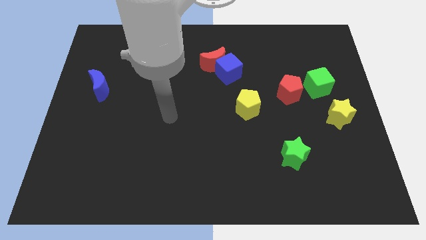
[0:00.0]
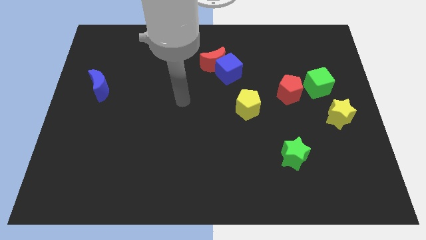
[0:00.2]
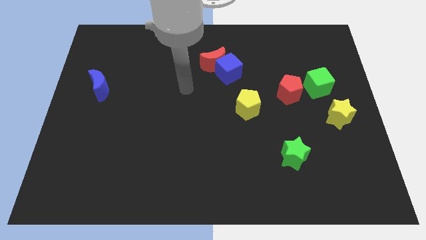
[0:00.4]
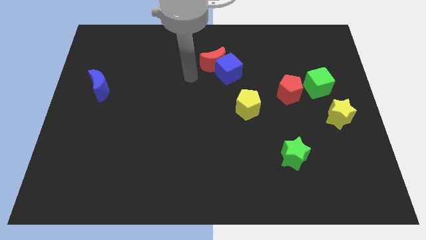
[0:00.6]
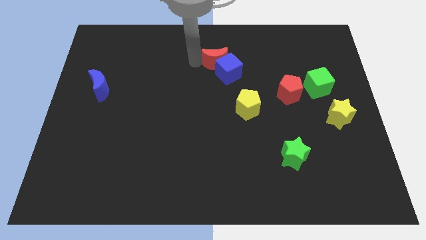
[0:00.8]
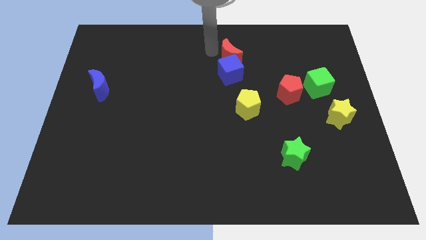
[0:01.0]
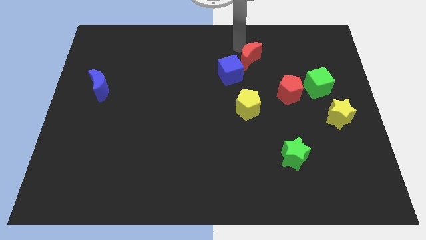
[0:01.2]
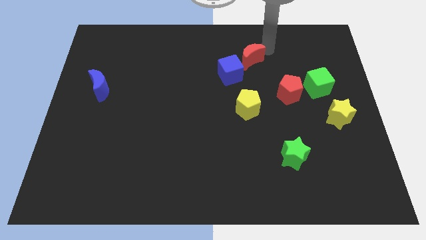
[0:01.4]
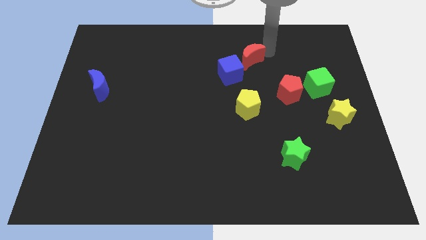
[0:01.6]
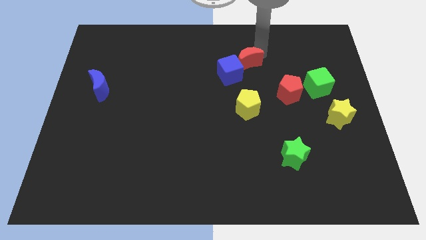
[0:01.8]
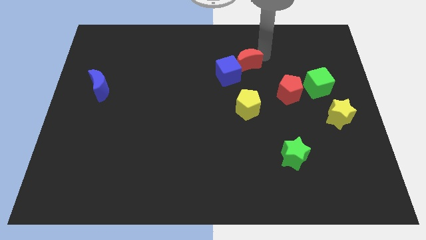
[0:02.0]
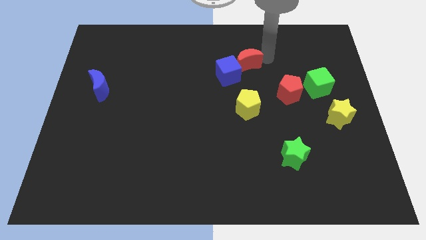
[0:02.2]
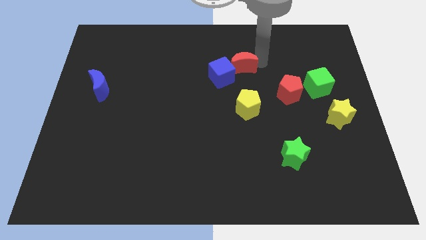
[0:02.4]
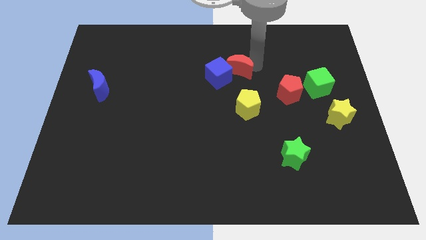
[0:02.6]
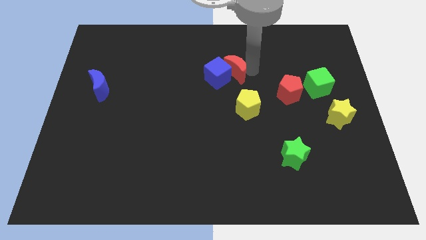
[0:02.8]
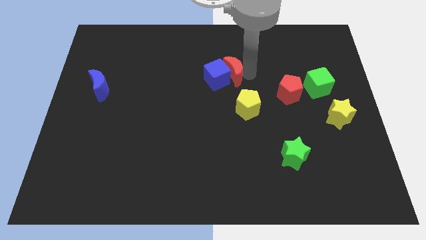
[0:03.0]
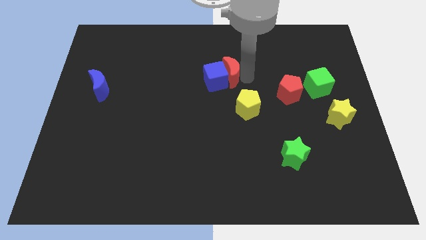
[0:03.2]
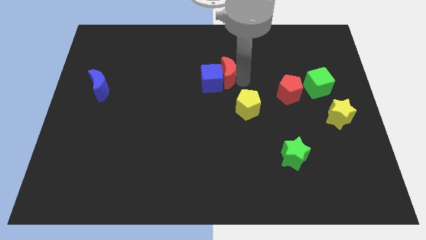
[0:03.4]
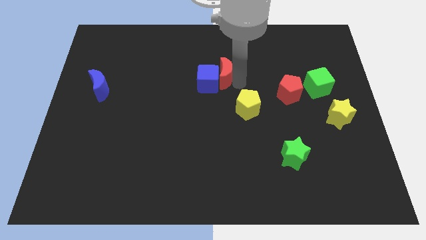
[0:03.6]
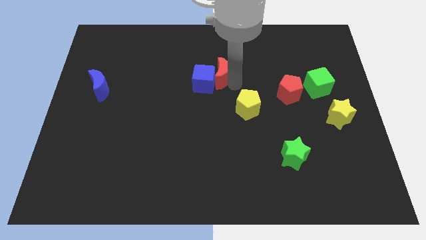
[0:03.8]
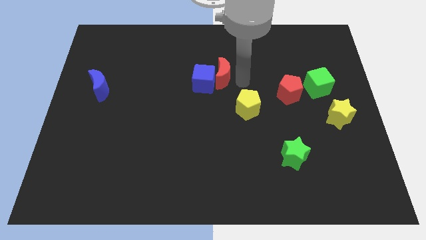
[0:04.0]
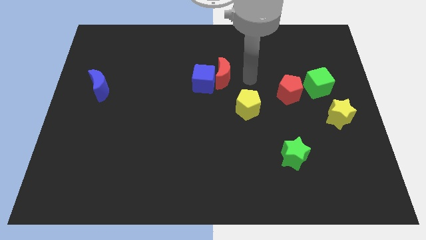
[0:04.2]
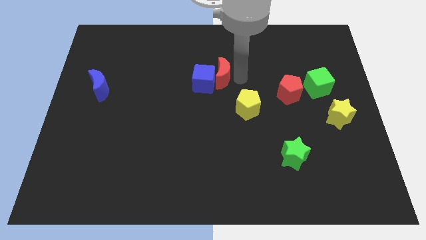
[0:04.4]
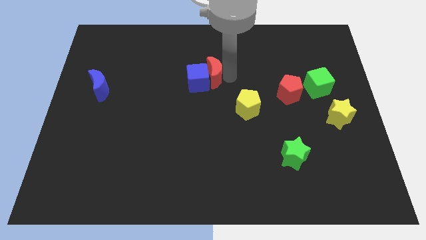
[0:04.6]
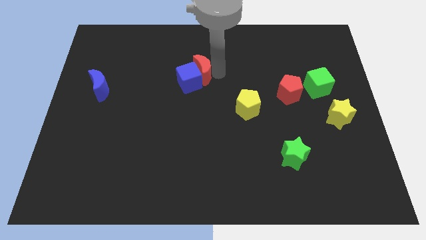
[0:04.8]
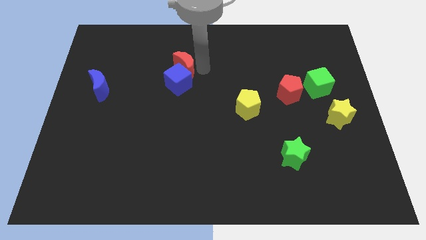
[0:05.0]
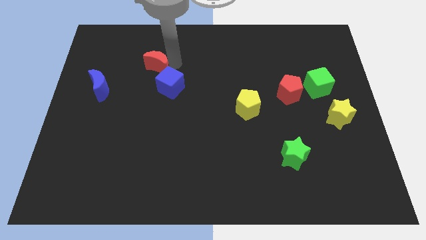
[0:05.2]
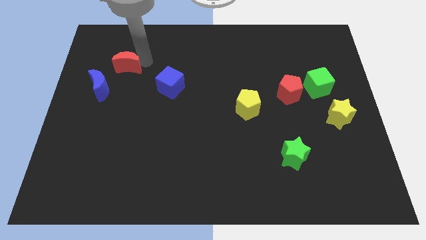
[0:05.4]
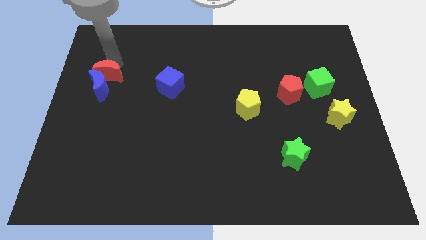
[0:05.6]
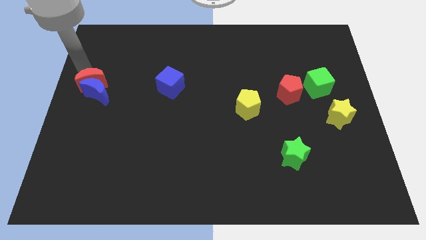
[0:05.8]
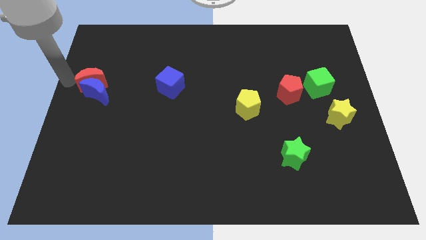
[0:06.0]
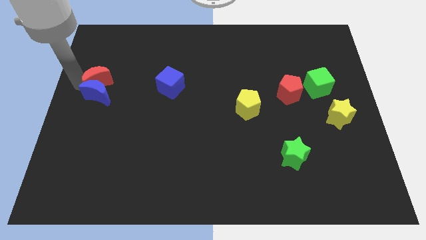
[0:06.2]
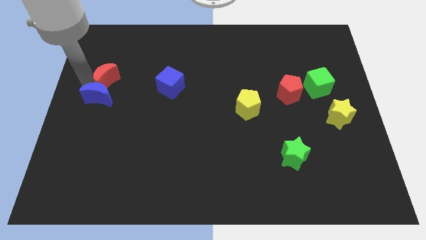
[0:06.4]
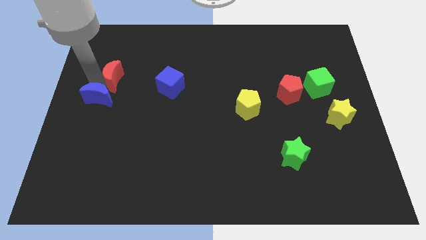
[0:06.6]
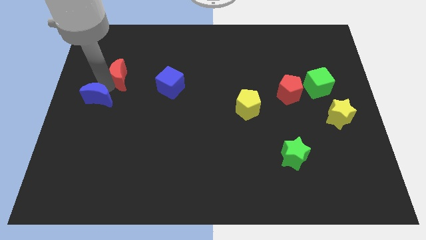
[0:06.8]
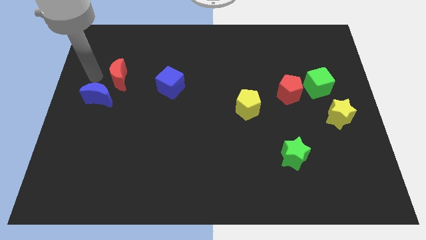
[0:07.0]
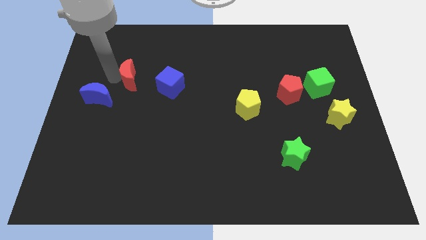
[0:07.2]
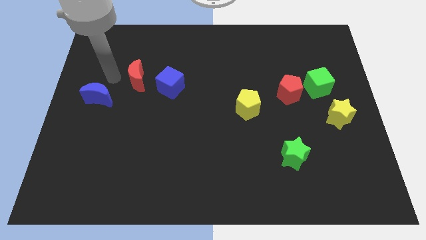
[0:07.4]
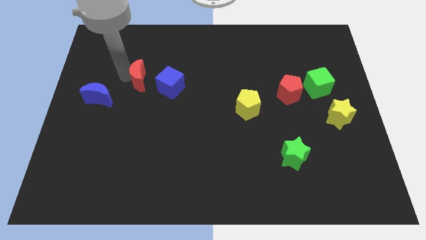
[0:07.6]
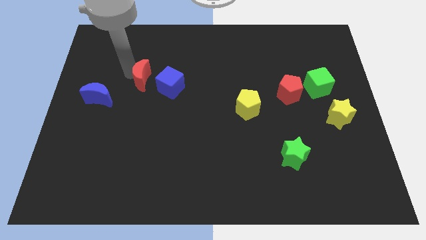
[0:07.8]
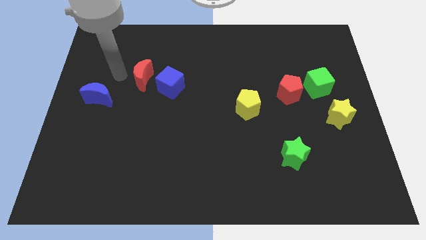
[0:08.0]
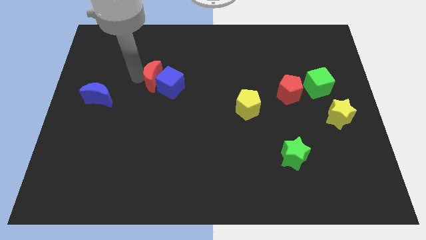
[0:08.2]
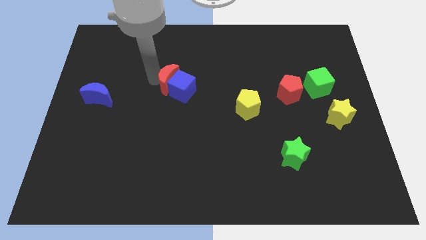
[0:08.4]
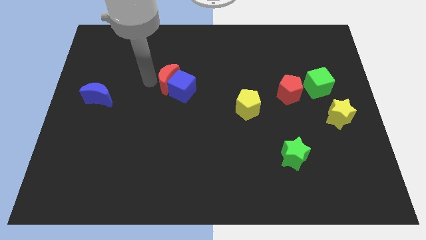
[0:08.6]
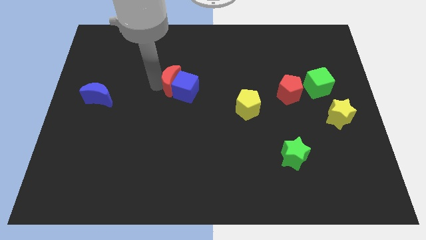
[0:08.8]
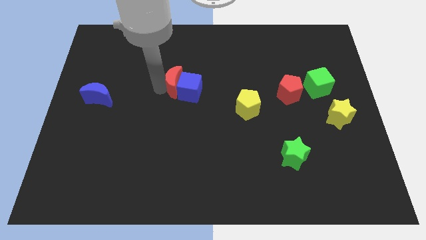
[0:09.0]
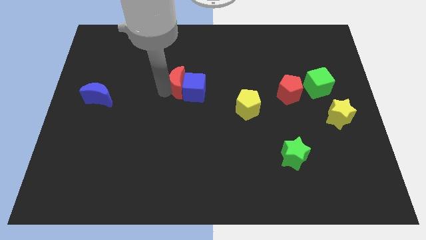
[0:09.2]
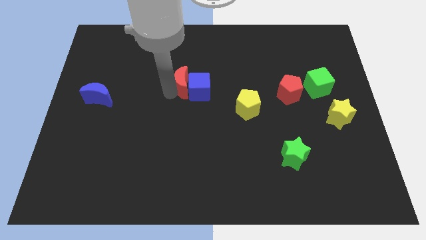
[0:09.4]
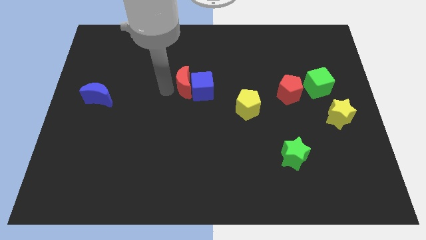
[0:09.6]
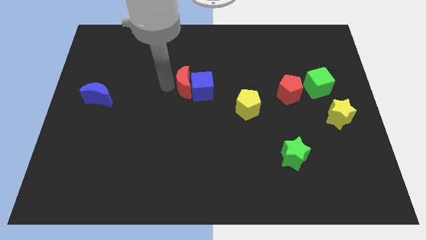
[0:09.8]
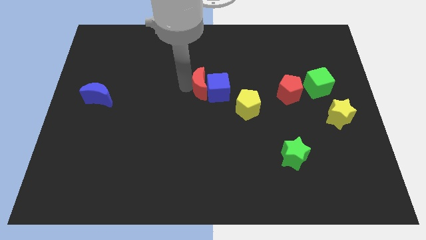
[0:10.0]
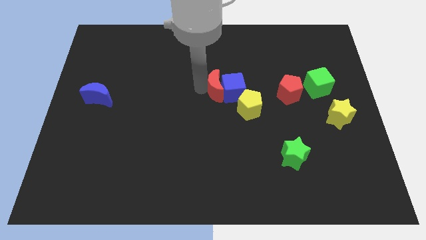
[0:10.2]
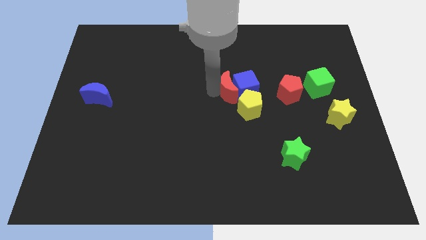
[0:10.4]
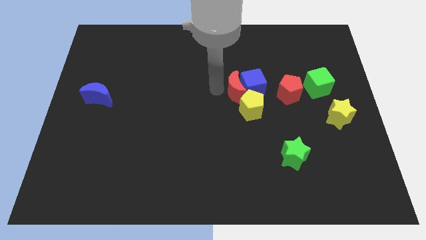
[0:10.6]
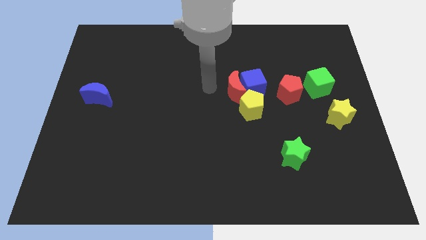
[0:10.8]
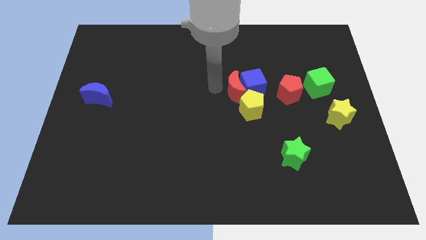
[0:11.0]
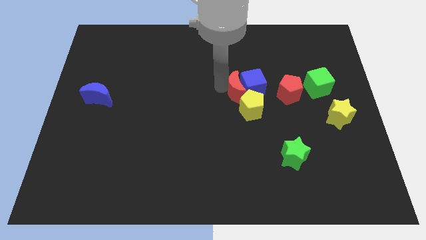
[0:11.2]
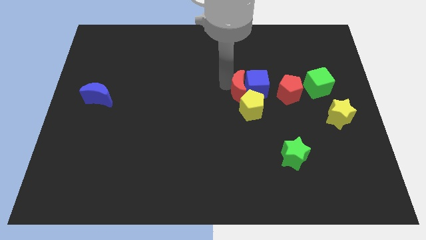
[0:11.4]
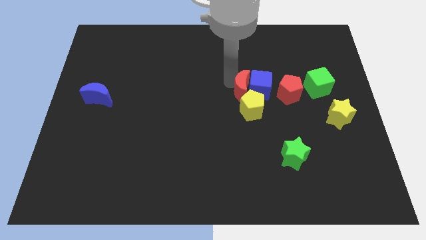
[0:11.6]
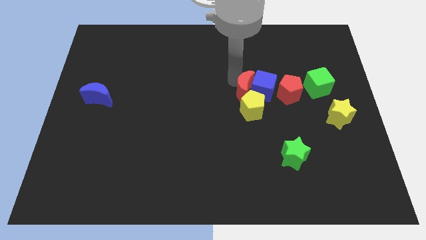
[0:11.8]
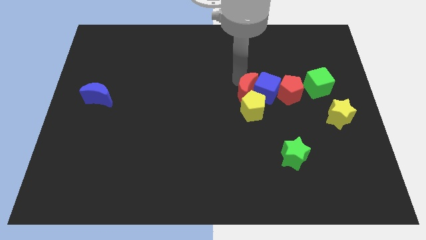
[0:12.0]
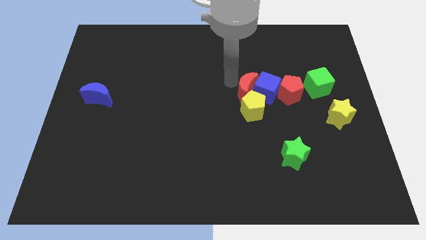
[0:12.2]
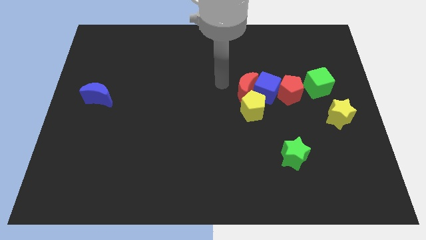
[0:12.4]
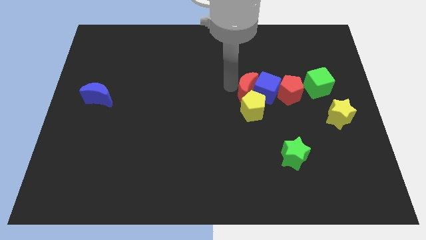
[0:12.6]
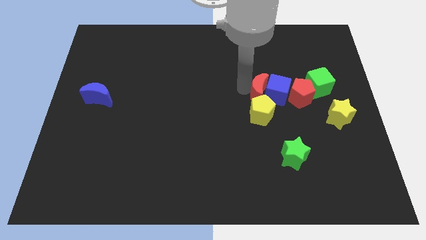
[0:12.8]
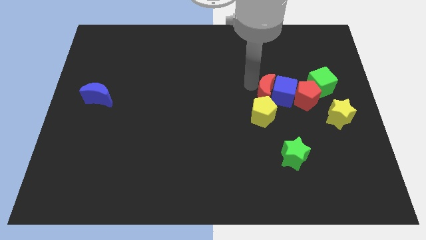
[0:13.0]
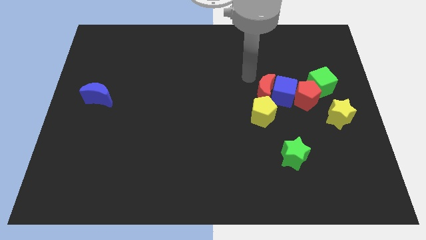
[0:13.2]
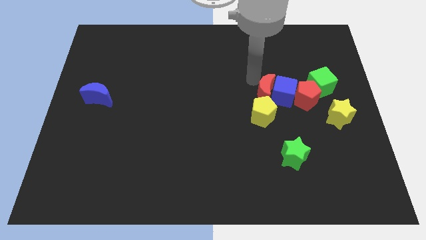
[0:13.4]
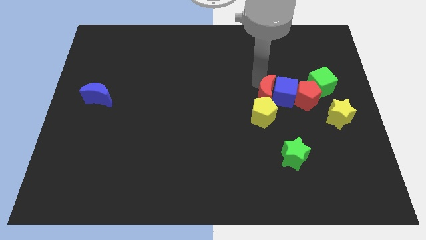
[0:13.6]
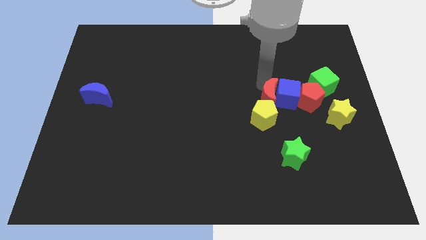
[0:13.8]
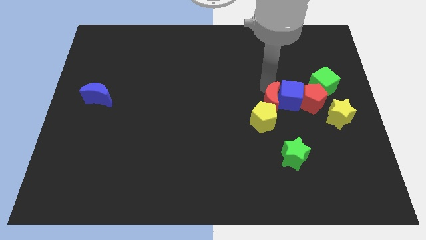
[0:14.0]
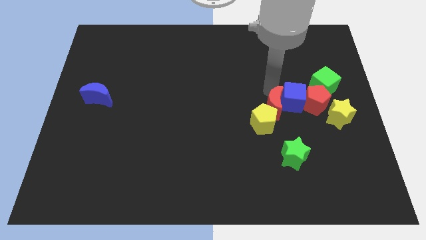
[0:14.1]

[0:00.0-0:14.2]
move the red moon diagonally downwards and to the right

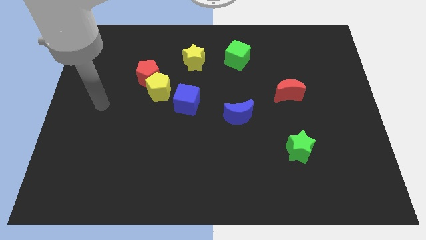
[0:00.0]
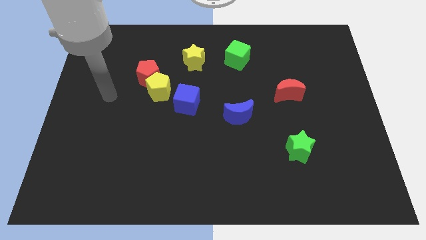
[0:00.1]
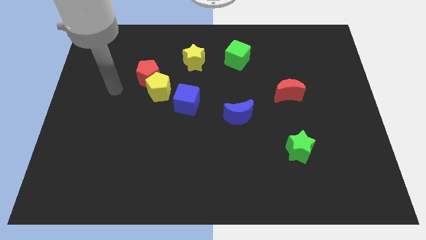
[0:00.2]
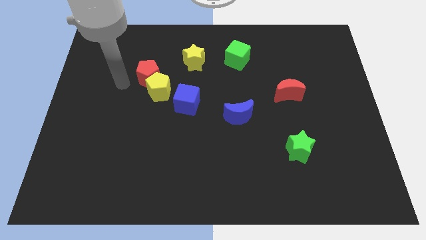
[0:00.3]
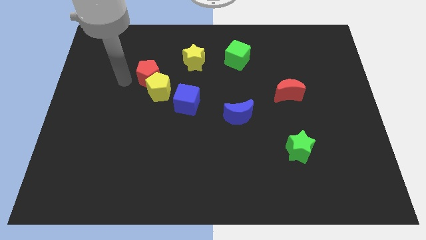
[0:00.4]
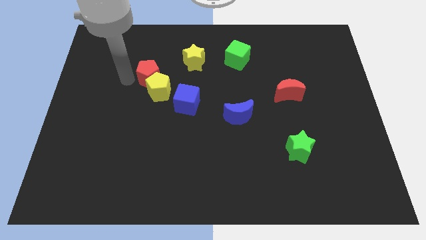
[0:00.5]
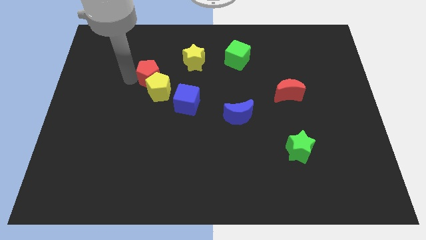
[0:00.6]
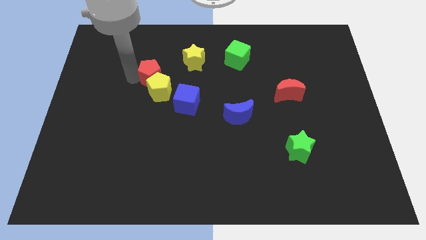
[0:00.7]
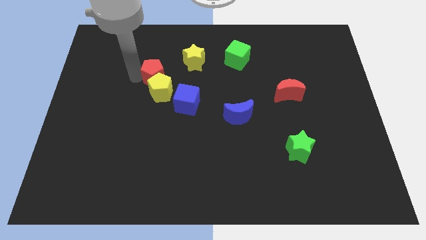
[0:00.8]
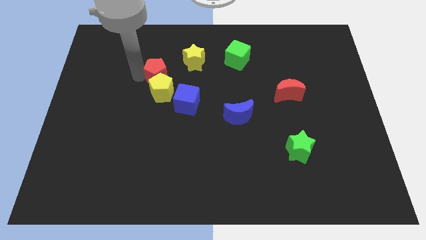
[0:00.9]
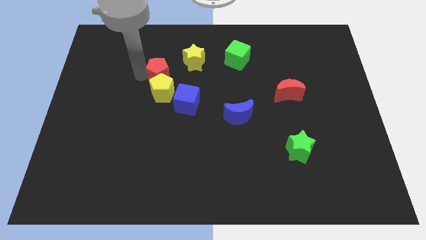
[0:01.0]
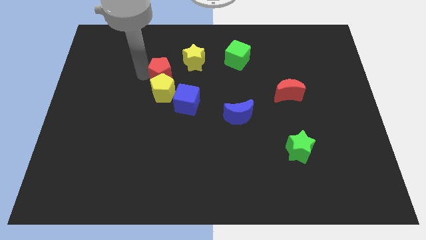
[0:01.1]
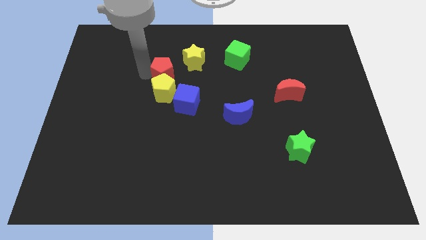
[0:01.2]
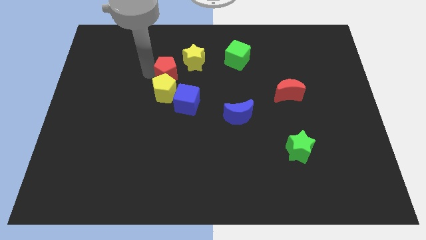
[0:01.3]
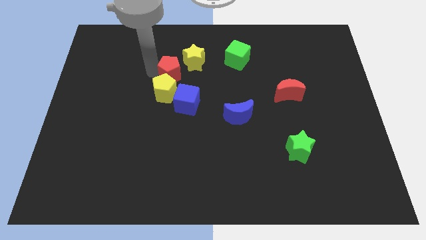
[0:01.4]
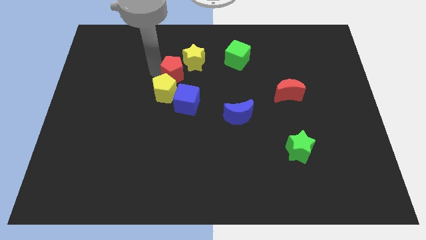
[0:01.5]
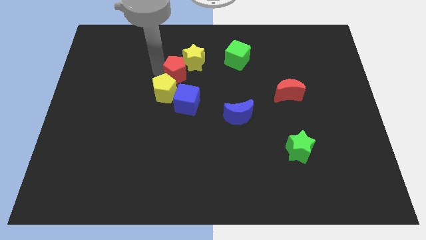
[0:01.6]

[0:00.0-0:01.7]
move the red pentagon slightly to the right
